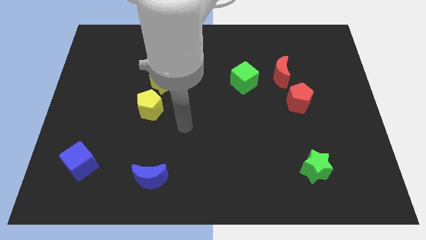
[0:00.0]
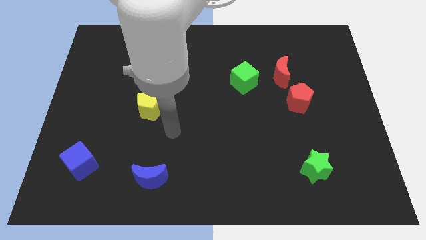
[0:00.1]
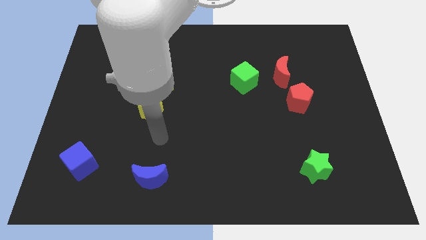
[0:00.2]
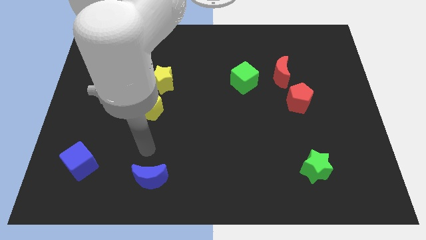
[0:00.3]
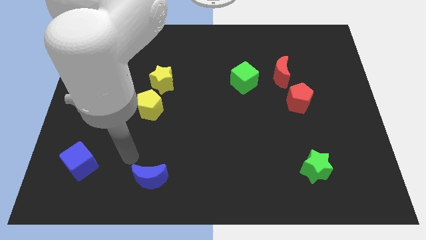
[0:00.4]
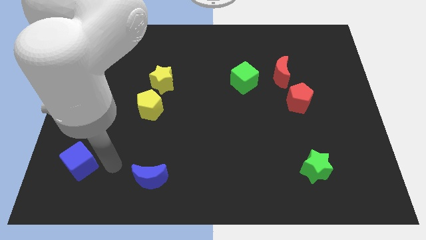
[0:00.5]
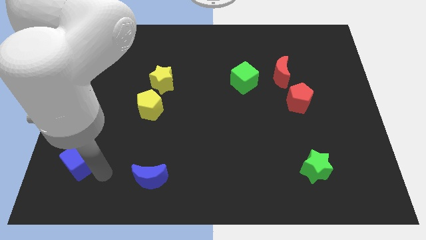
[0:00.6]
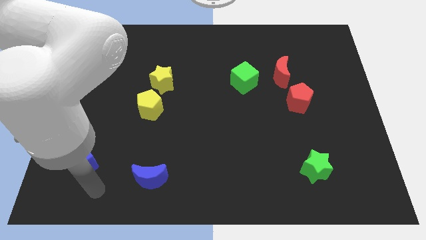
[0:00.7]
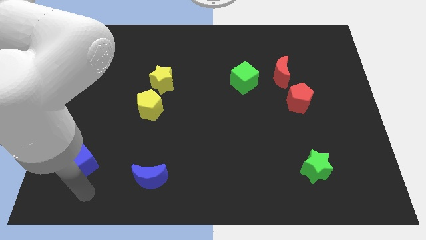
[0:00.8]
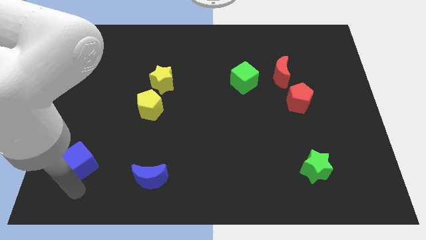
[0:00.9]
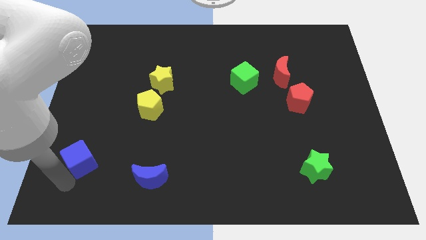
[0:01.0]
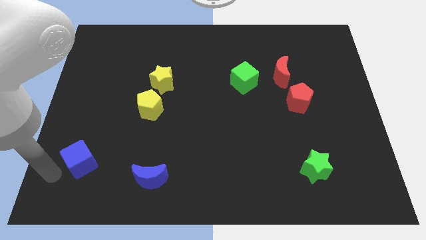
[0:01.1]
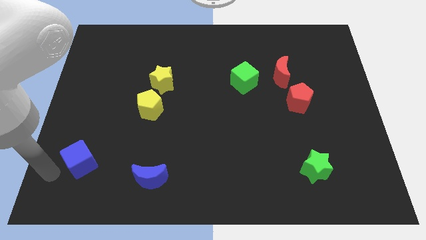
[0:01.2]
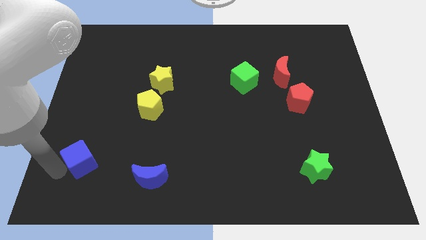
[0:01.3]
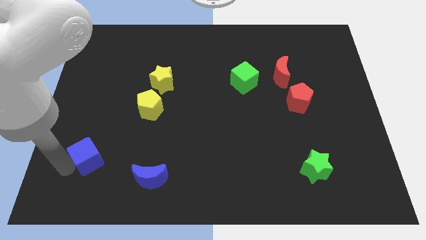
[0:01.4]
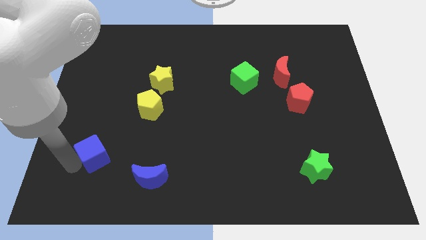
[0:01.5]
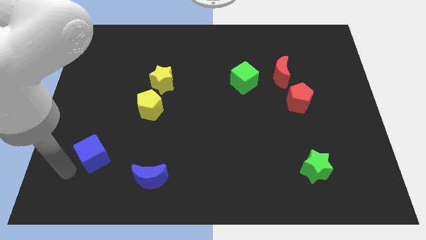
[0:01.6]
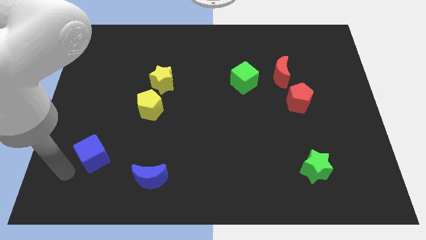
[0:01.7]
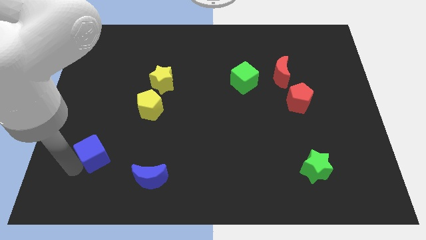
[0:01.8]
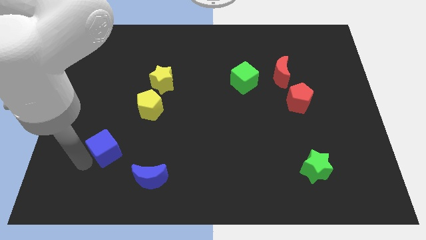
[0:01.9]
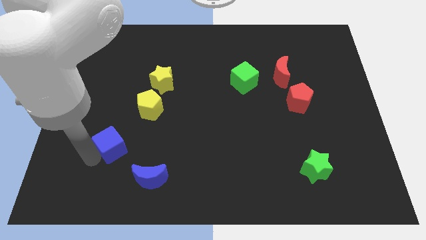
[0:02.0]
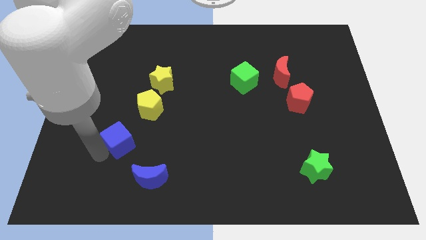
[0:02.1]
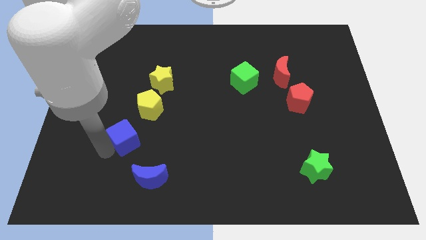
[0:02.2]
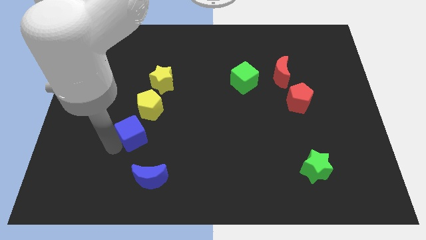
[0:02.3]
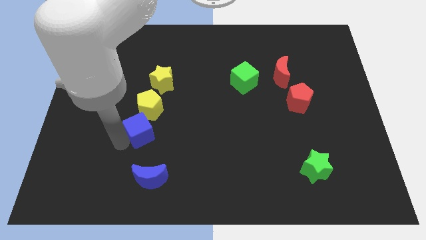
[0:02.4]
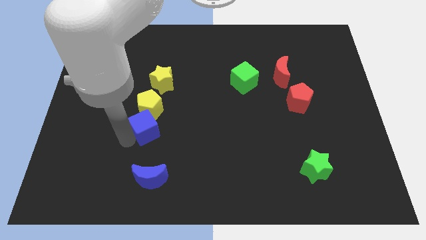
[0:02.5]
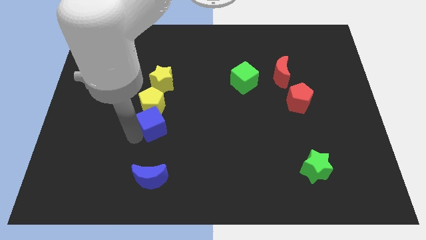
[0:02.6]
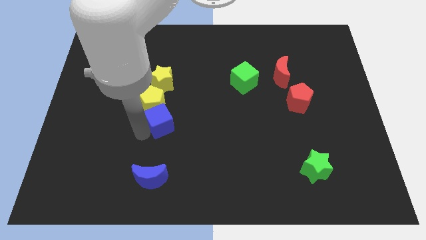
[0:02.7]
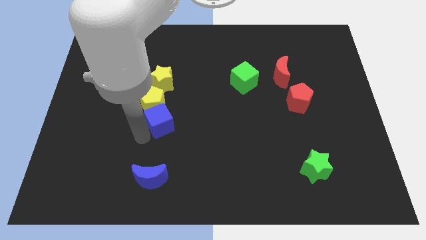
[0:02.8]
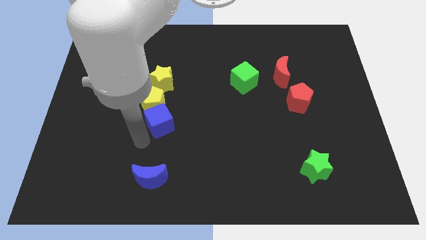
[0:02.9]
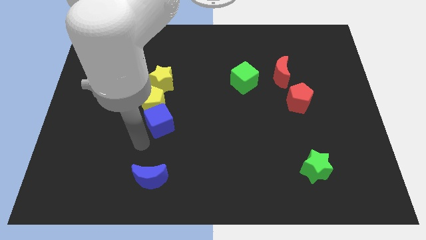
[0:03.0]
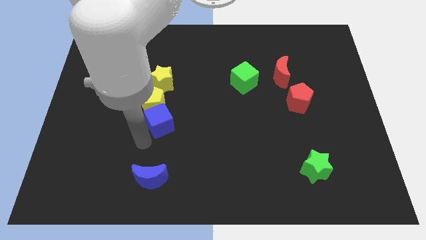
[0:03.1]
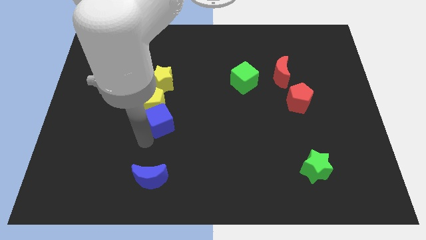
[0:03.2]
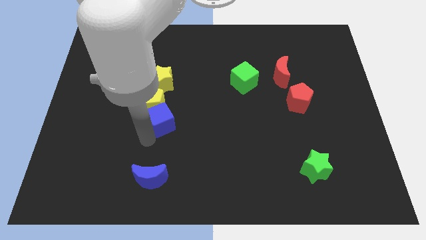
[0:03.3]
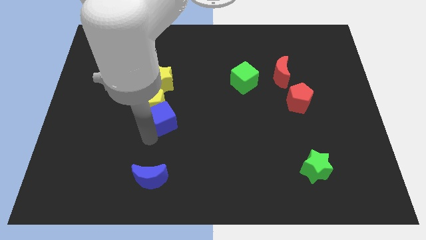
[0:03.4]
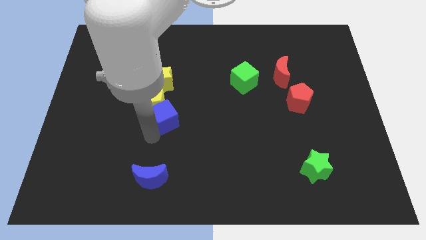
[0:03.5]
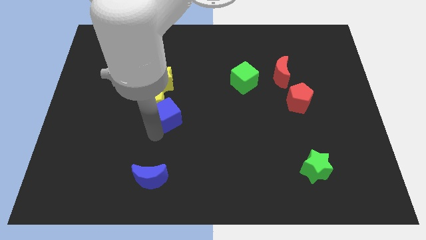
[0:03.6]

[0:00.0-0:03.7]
slide the blue cube diagonally up and right

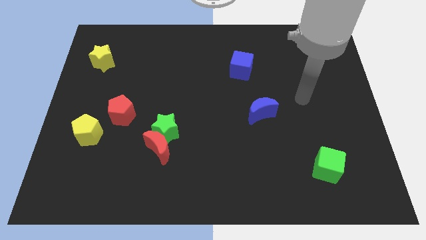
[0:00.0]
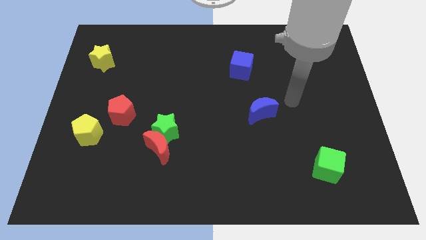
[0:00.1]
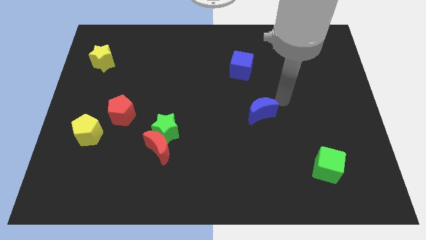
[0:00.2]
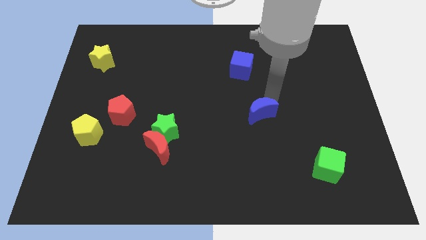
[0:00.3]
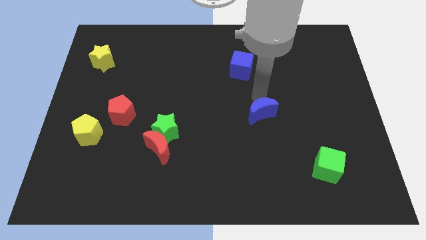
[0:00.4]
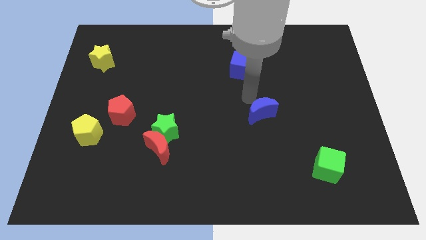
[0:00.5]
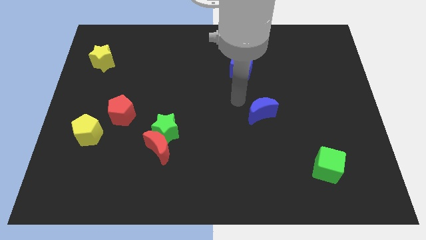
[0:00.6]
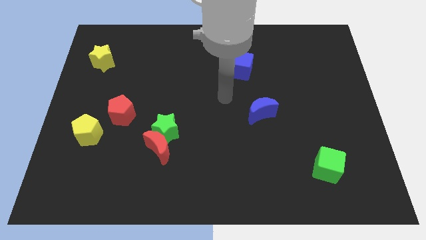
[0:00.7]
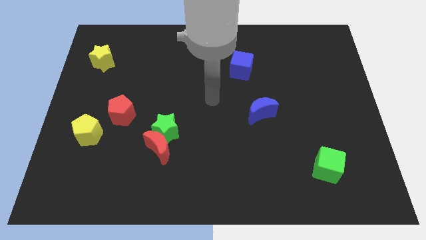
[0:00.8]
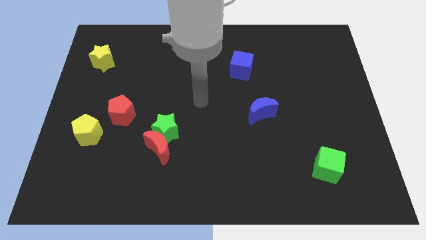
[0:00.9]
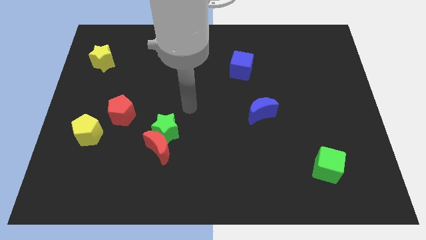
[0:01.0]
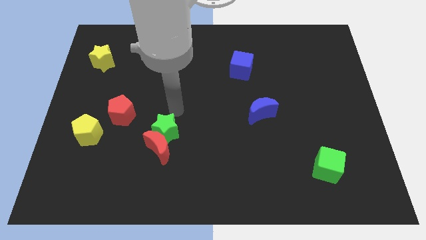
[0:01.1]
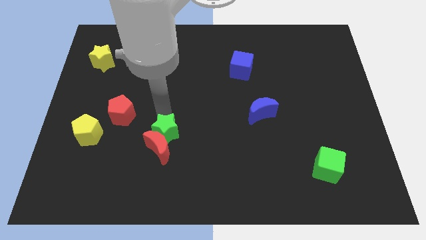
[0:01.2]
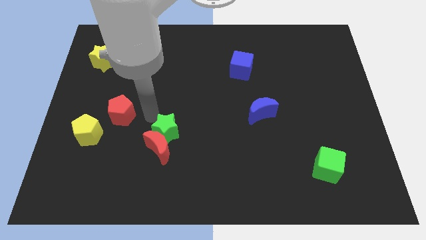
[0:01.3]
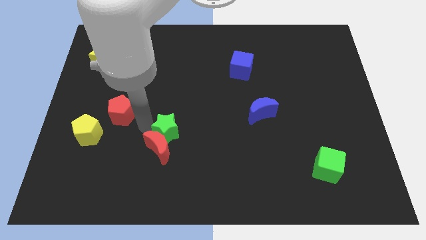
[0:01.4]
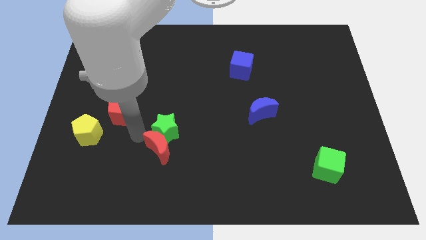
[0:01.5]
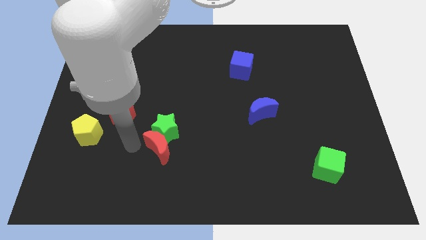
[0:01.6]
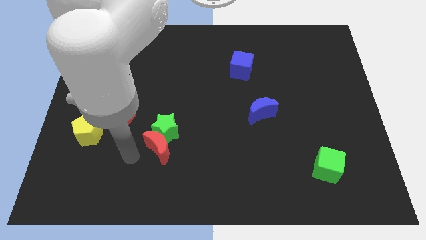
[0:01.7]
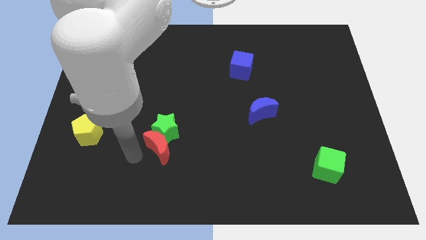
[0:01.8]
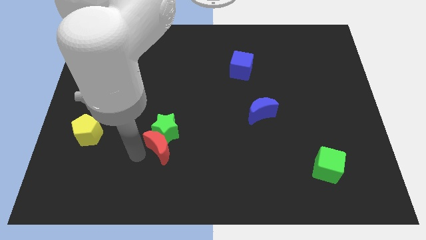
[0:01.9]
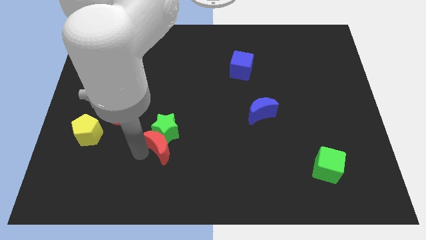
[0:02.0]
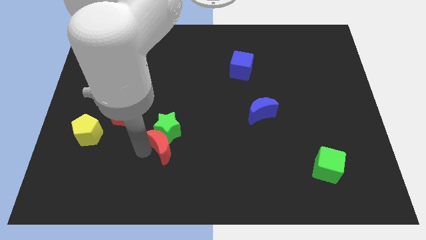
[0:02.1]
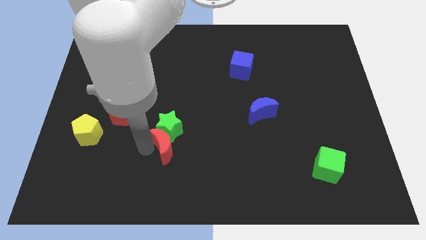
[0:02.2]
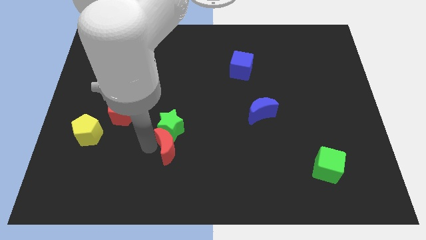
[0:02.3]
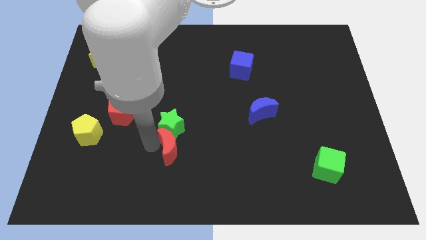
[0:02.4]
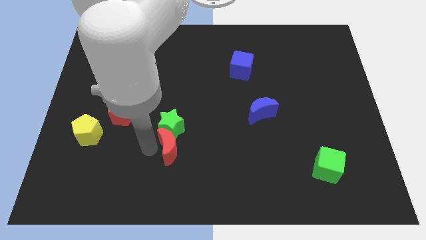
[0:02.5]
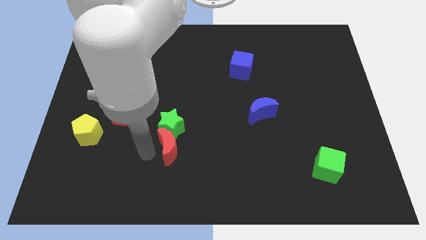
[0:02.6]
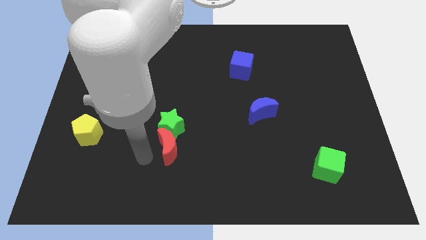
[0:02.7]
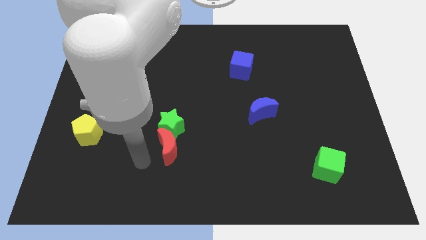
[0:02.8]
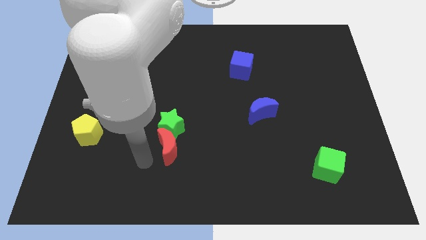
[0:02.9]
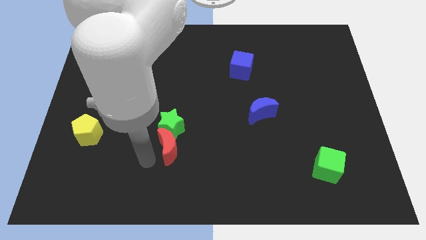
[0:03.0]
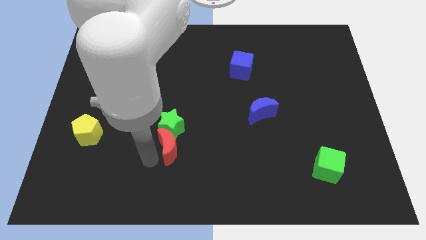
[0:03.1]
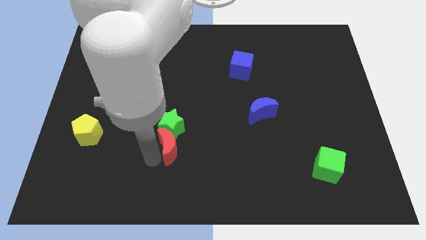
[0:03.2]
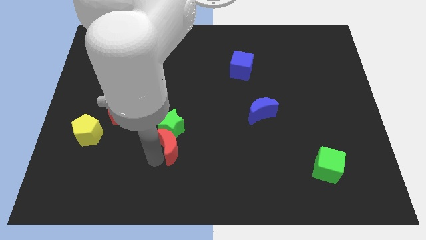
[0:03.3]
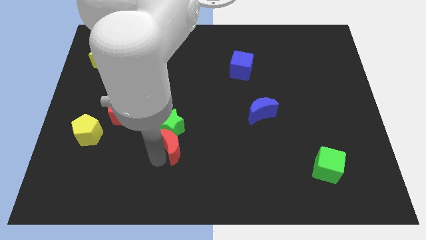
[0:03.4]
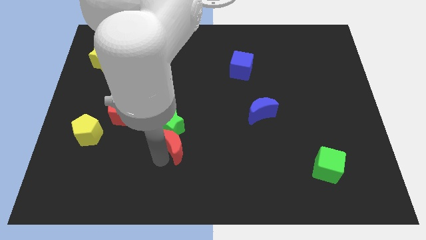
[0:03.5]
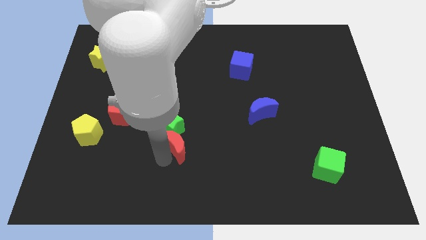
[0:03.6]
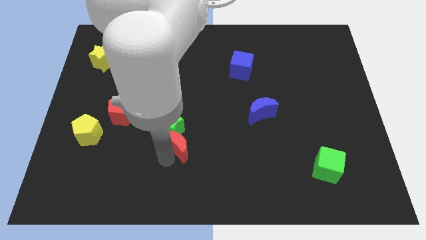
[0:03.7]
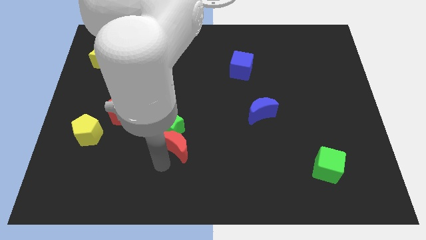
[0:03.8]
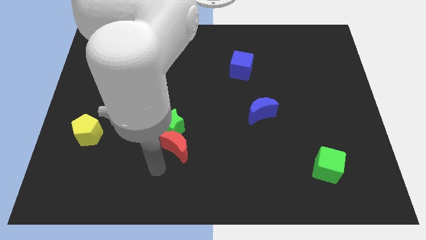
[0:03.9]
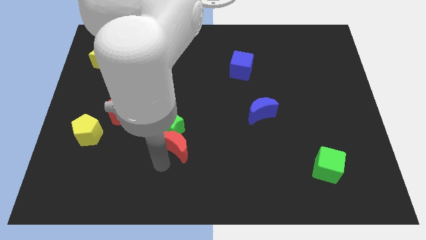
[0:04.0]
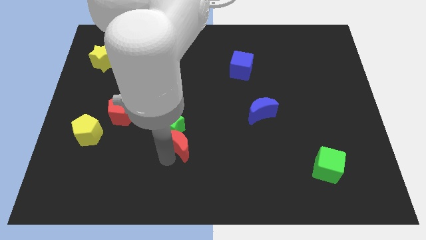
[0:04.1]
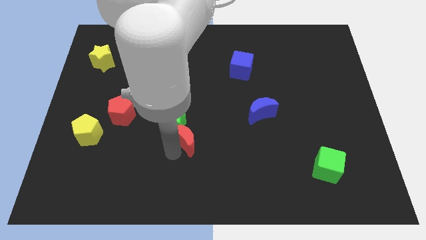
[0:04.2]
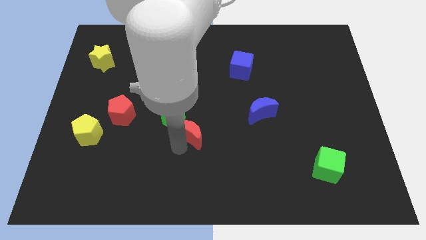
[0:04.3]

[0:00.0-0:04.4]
slightly slide the red moon diagonally up and right
